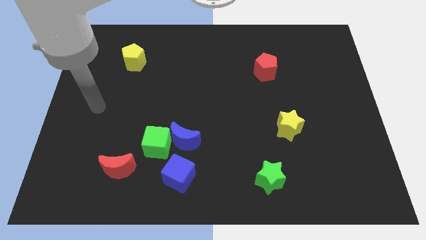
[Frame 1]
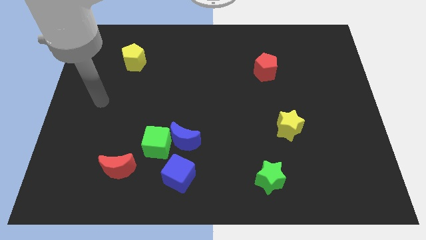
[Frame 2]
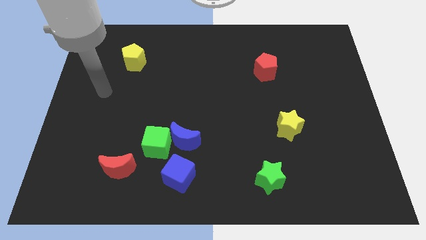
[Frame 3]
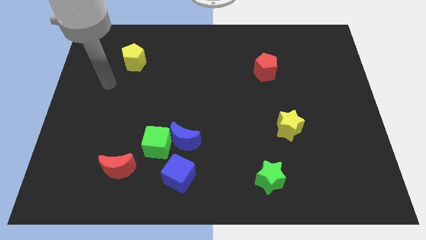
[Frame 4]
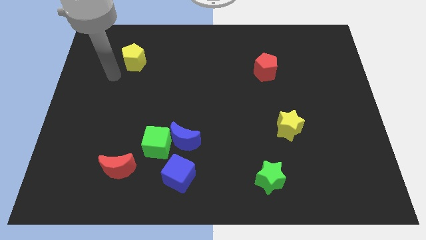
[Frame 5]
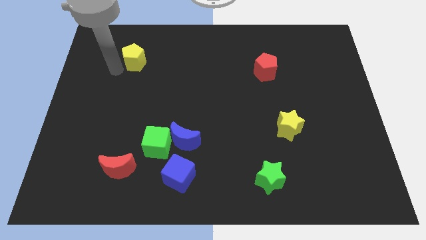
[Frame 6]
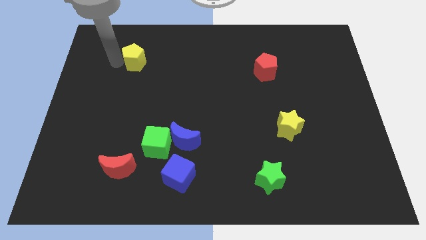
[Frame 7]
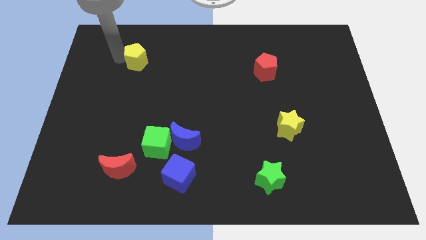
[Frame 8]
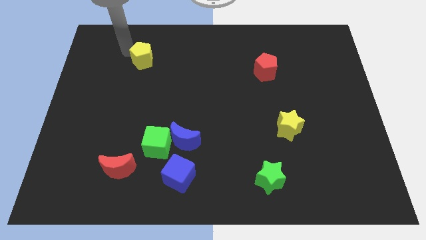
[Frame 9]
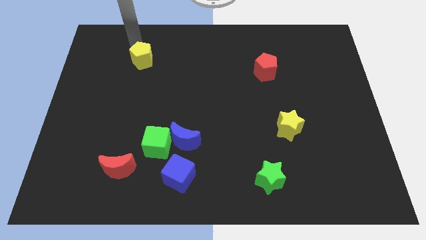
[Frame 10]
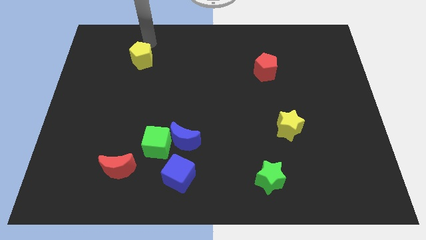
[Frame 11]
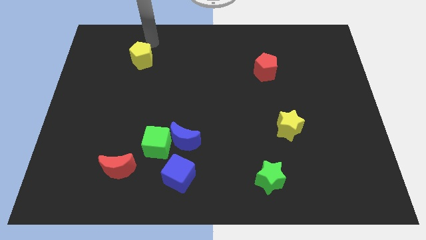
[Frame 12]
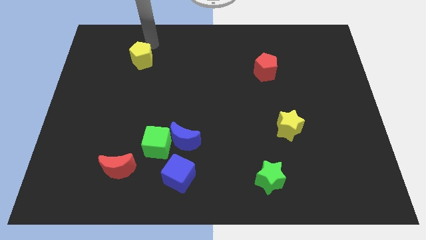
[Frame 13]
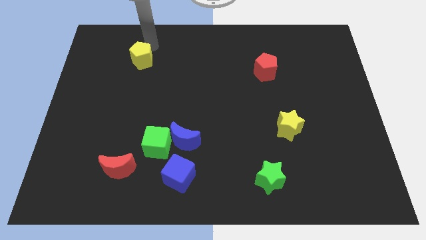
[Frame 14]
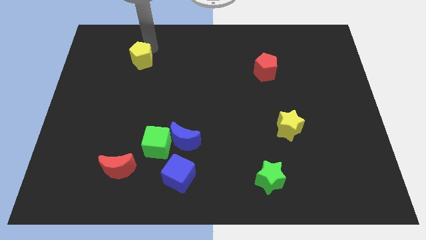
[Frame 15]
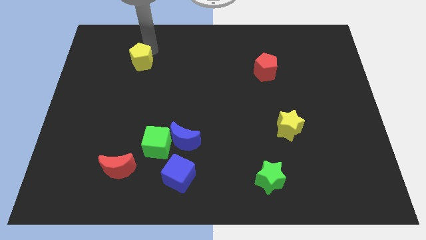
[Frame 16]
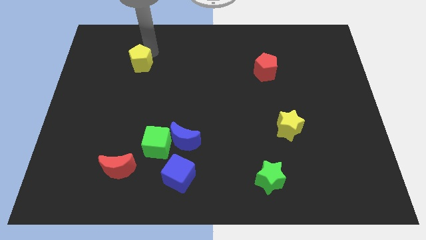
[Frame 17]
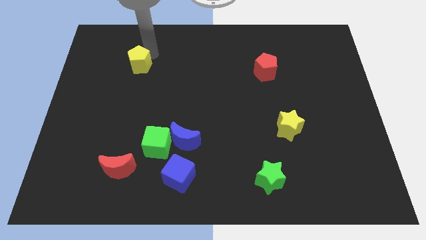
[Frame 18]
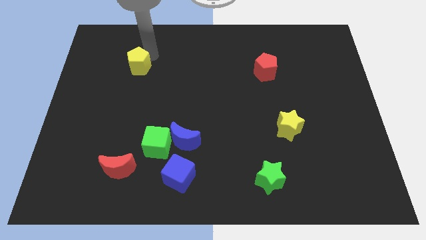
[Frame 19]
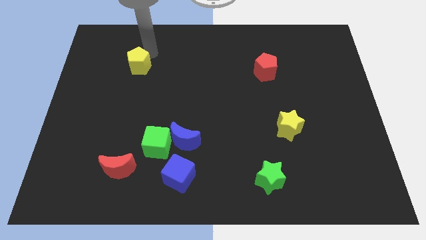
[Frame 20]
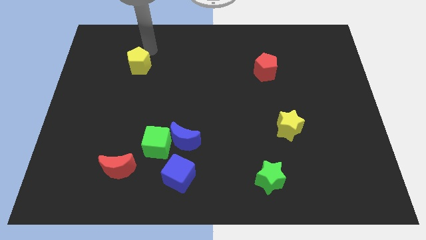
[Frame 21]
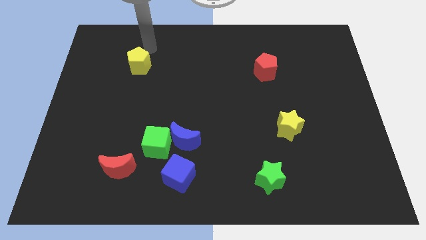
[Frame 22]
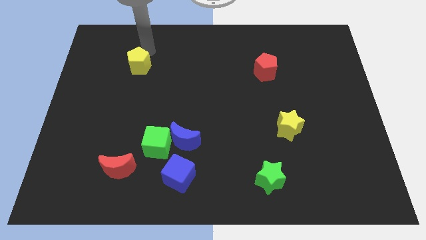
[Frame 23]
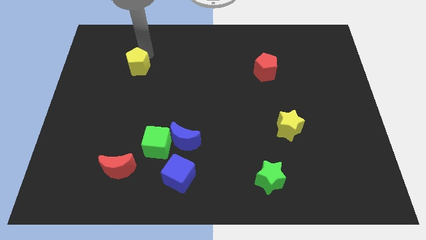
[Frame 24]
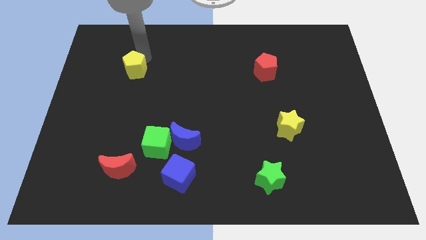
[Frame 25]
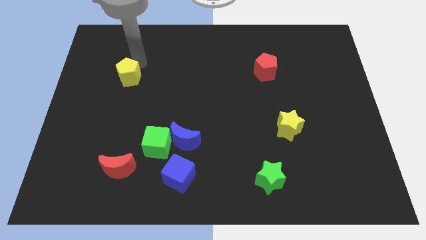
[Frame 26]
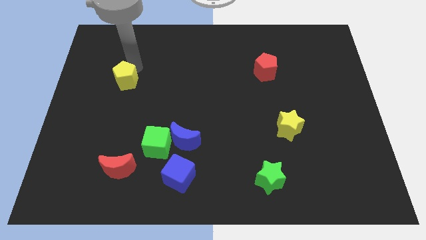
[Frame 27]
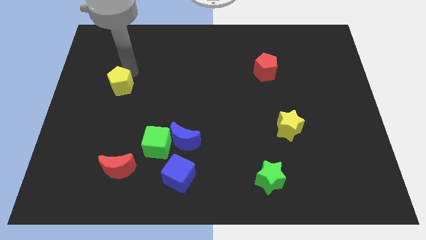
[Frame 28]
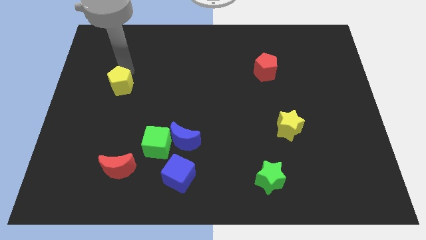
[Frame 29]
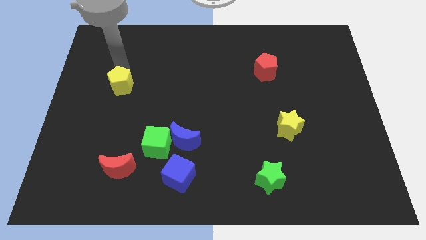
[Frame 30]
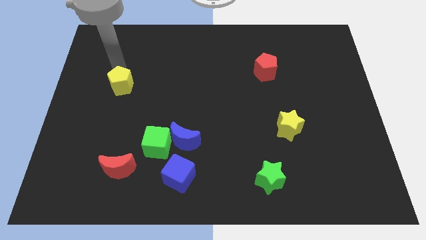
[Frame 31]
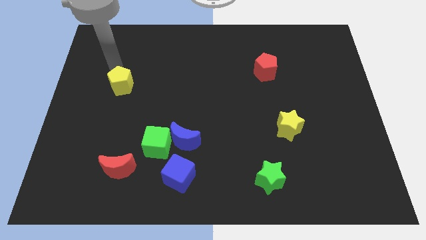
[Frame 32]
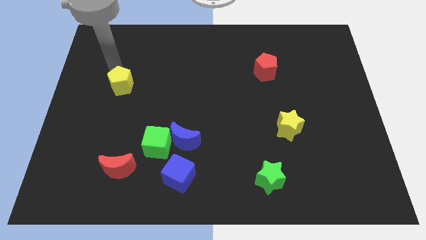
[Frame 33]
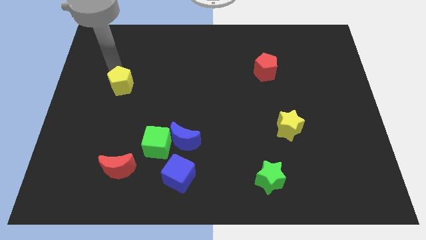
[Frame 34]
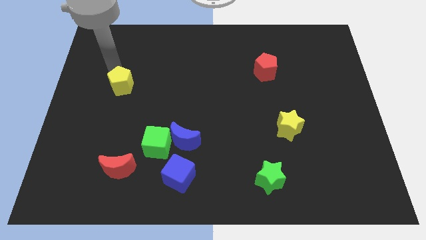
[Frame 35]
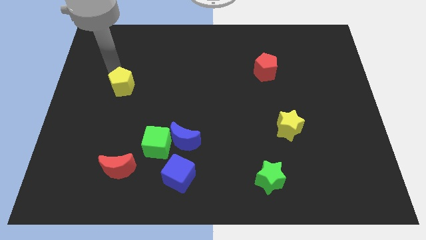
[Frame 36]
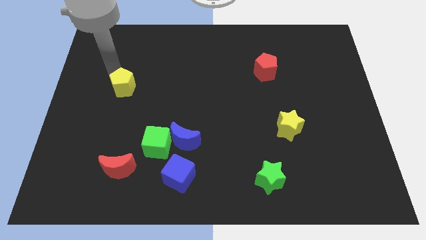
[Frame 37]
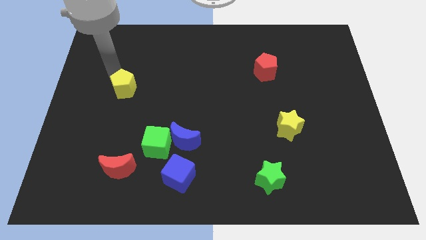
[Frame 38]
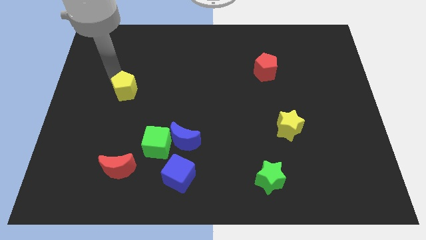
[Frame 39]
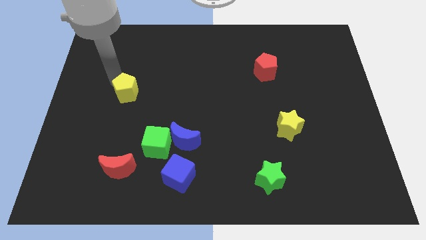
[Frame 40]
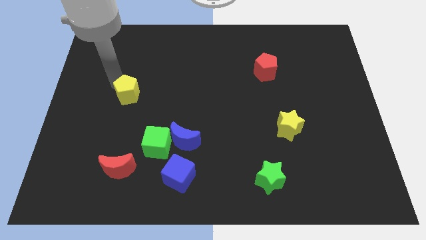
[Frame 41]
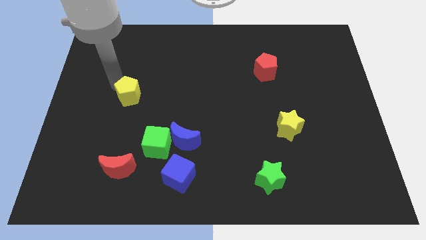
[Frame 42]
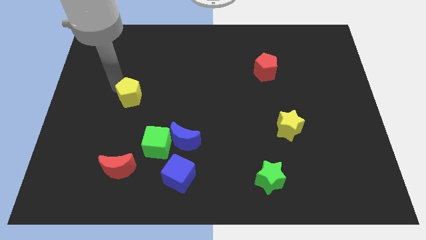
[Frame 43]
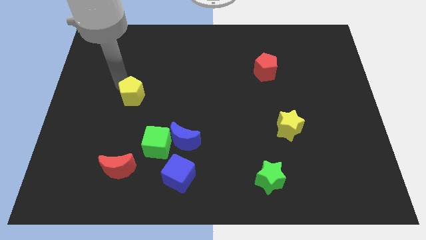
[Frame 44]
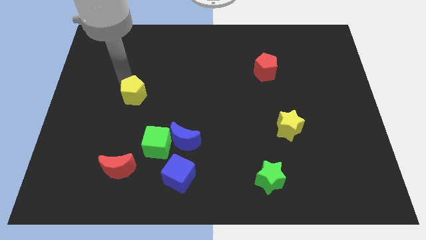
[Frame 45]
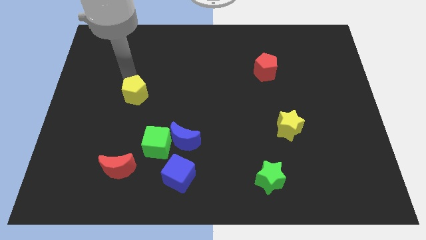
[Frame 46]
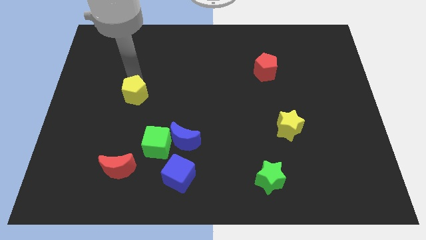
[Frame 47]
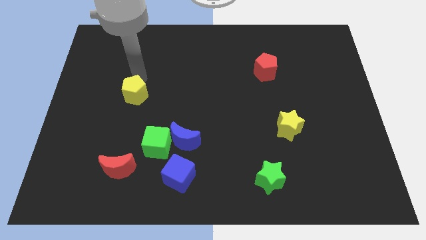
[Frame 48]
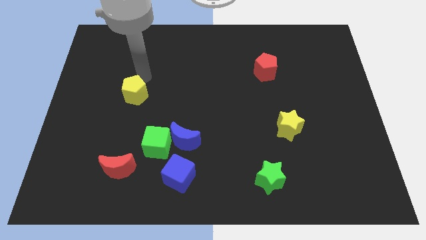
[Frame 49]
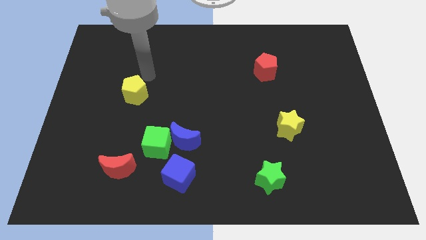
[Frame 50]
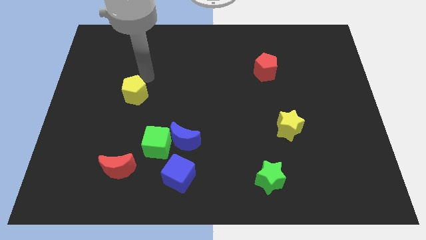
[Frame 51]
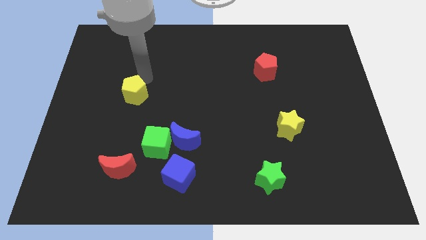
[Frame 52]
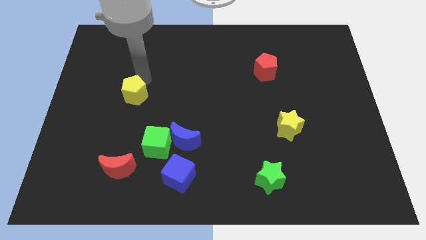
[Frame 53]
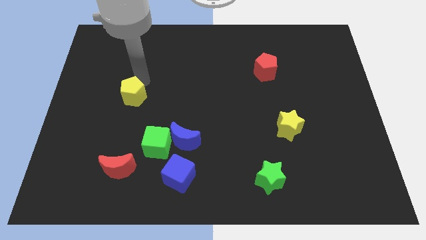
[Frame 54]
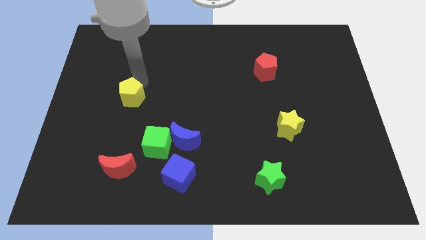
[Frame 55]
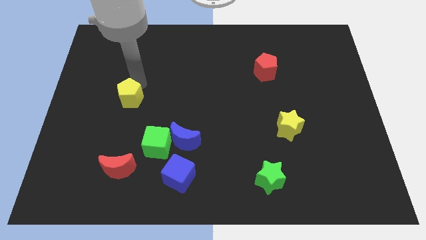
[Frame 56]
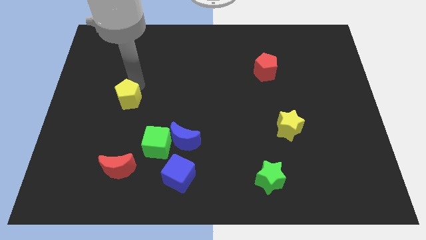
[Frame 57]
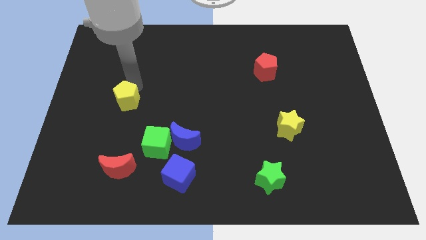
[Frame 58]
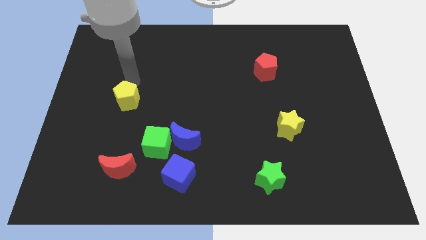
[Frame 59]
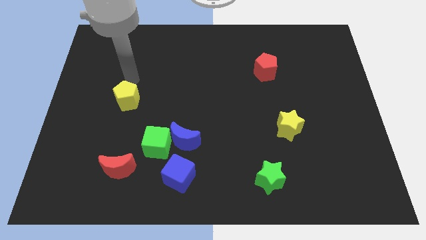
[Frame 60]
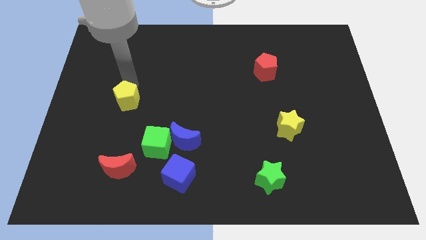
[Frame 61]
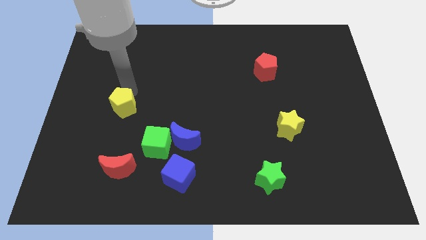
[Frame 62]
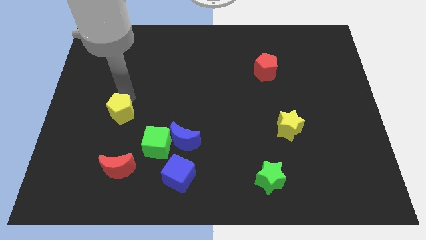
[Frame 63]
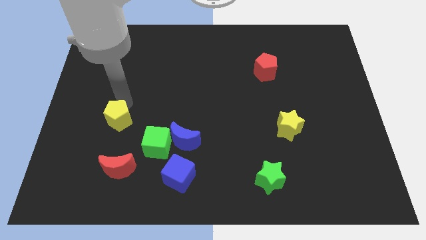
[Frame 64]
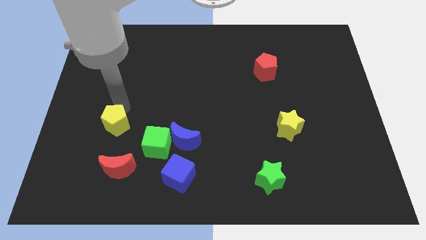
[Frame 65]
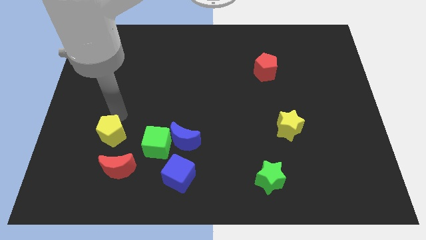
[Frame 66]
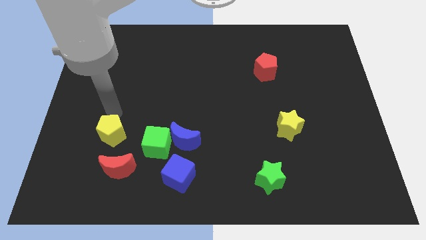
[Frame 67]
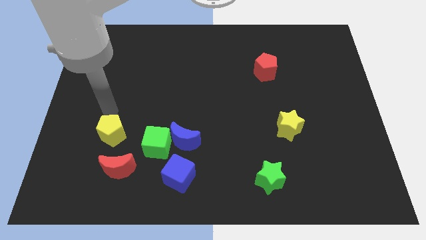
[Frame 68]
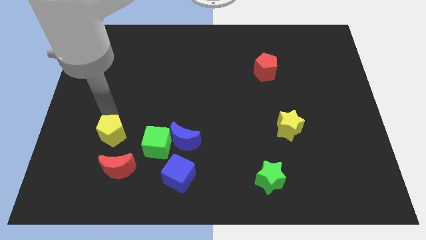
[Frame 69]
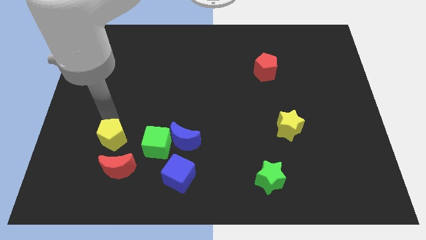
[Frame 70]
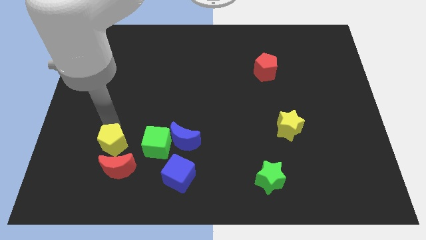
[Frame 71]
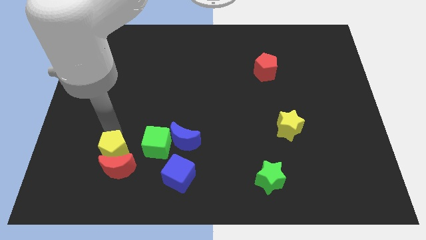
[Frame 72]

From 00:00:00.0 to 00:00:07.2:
push the yellow pentagon close to the red moon

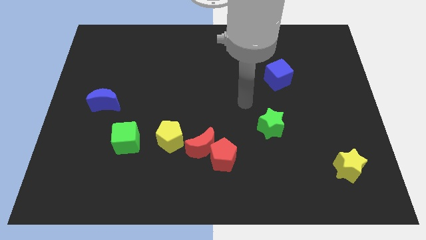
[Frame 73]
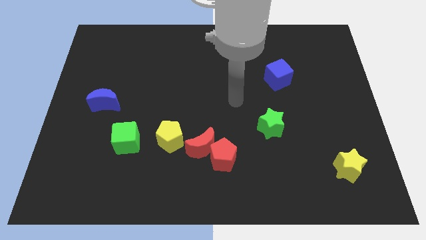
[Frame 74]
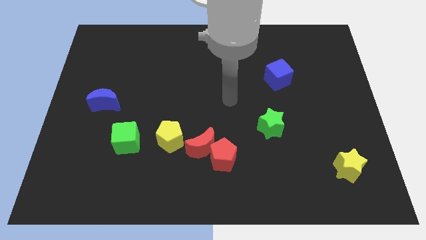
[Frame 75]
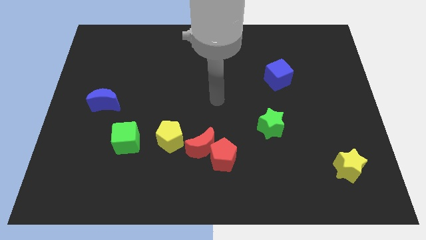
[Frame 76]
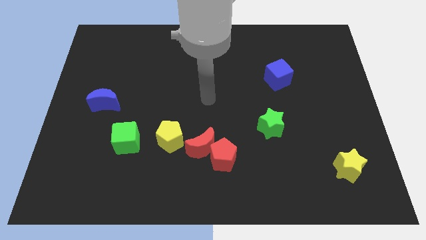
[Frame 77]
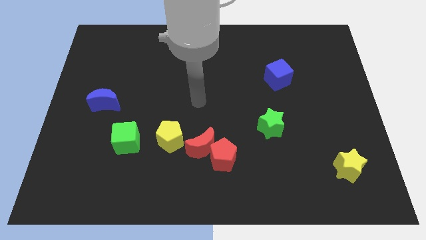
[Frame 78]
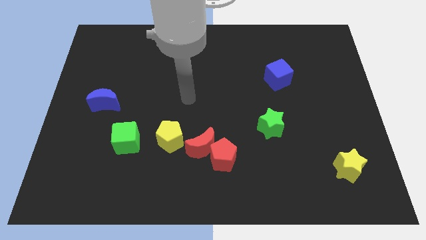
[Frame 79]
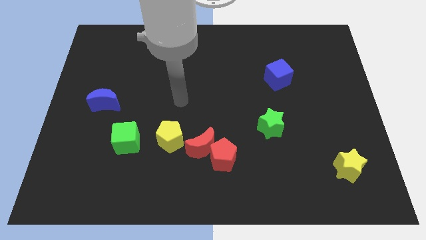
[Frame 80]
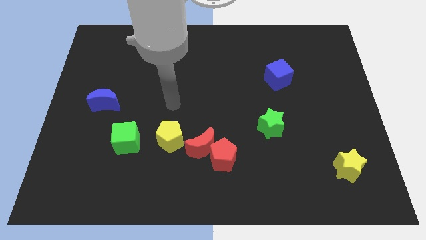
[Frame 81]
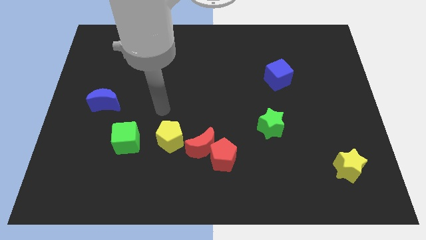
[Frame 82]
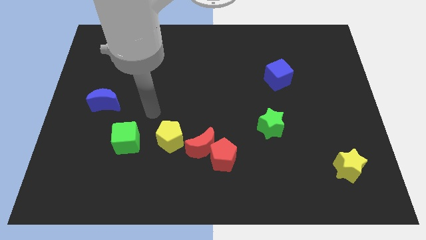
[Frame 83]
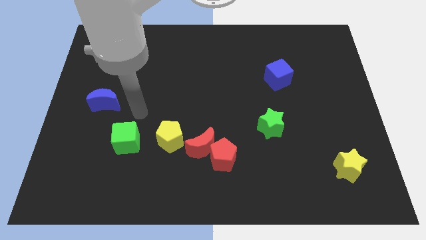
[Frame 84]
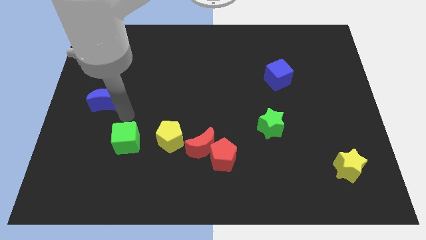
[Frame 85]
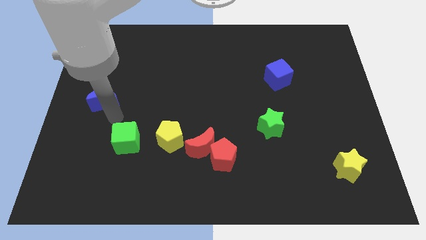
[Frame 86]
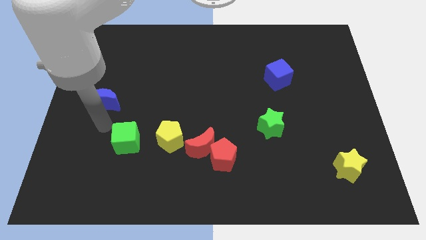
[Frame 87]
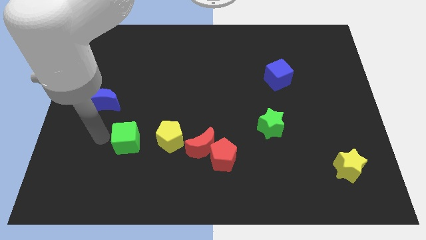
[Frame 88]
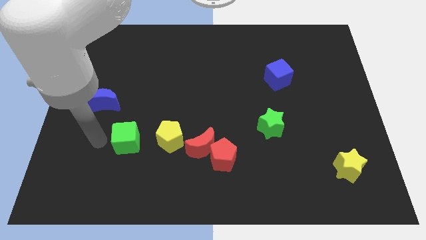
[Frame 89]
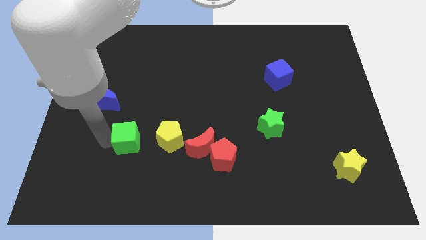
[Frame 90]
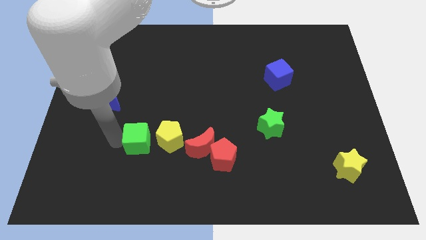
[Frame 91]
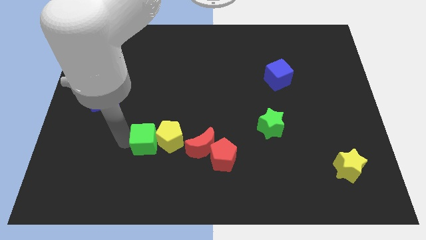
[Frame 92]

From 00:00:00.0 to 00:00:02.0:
slide the green cube towards the yellow pentagon
